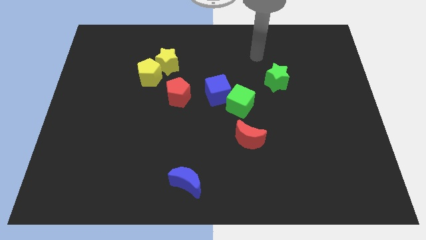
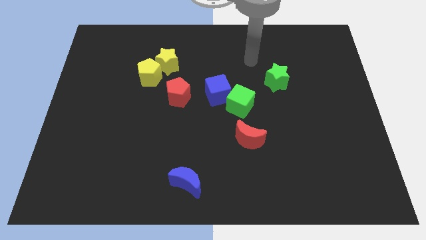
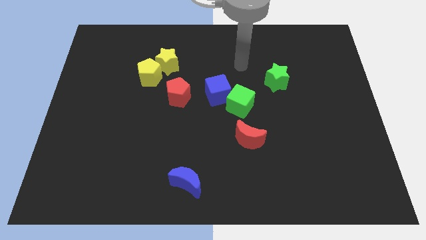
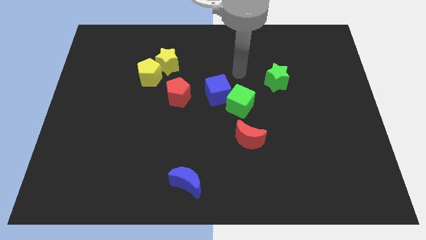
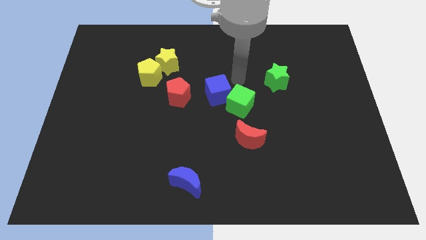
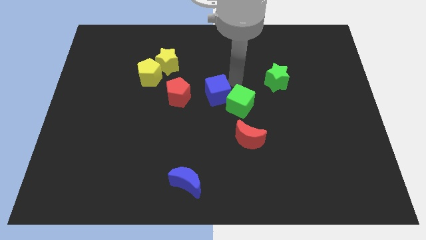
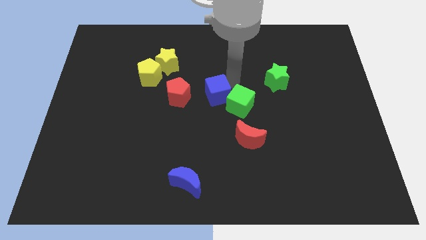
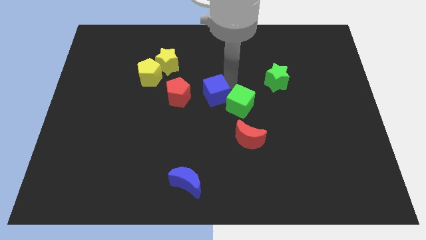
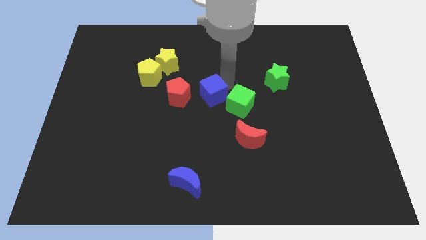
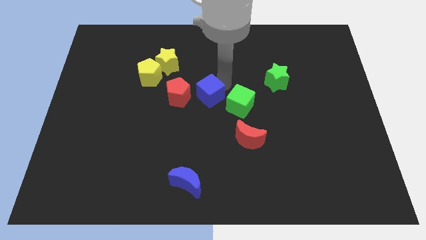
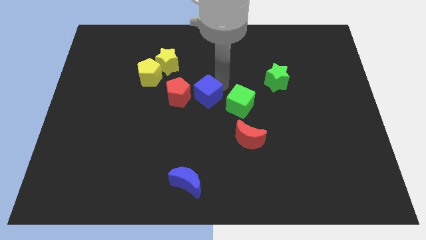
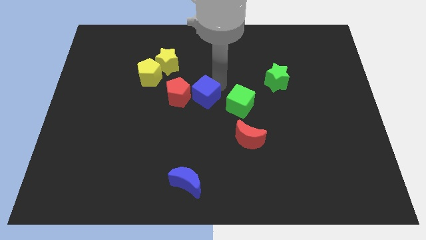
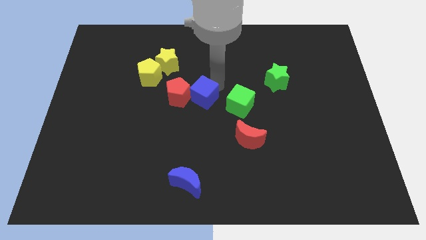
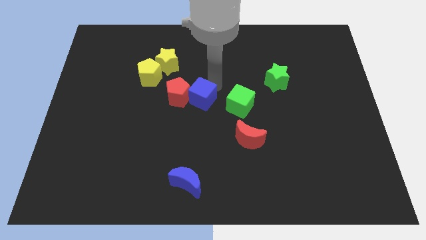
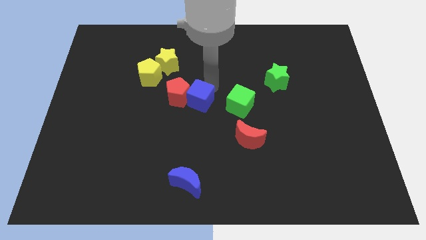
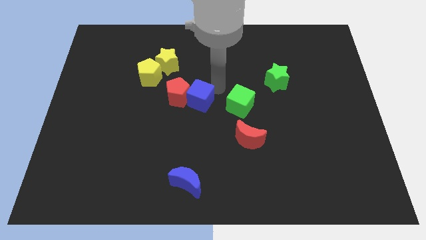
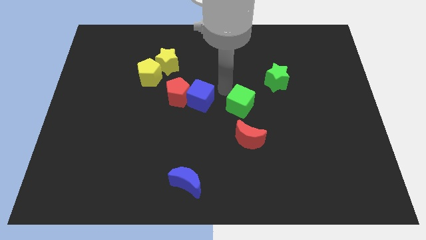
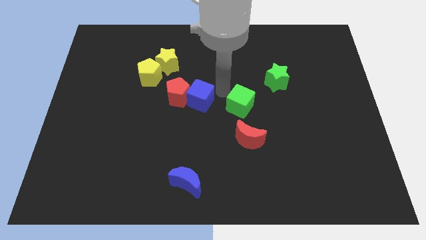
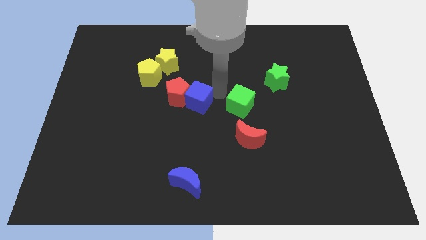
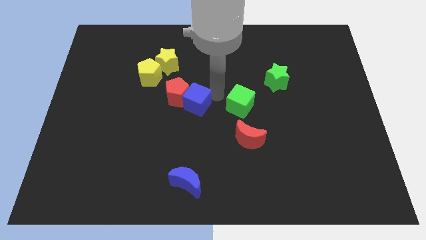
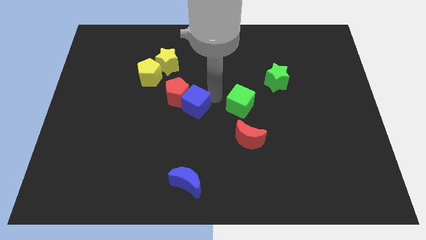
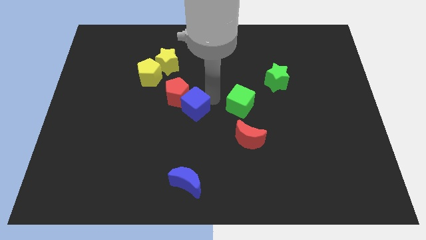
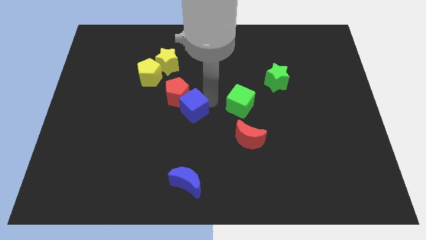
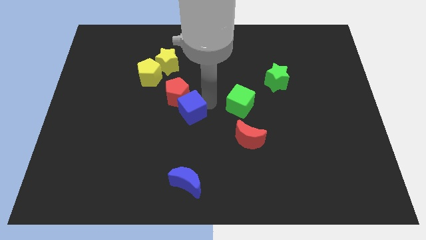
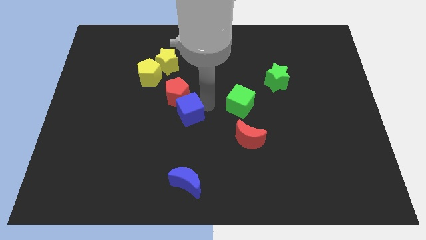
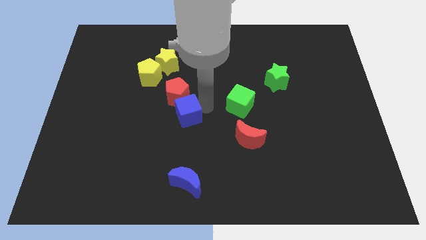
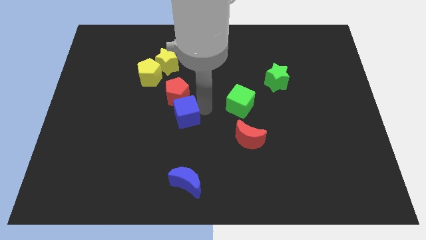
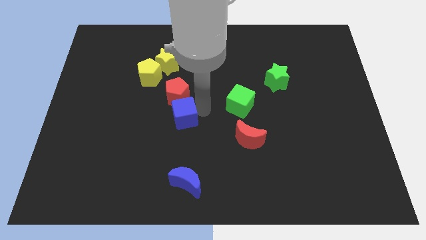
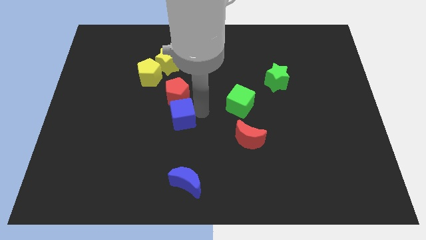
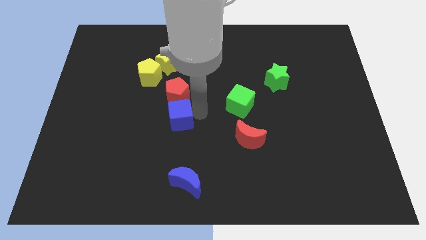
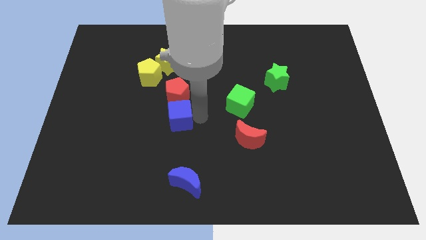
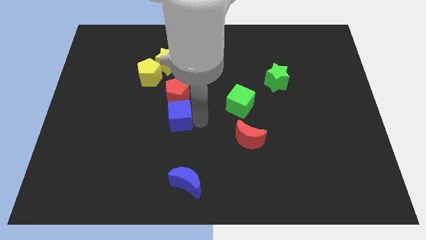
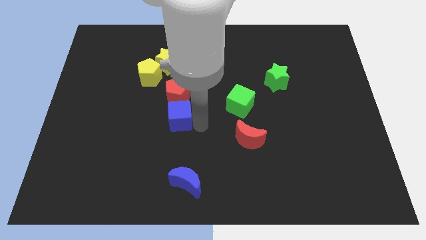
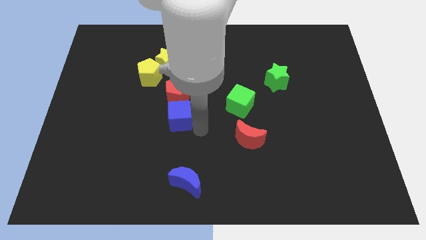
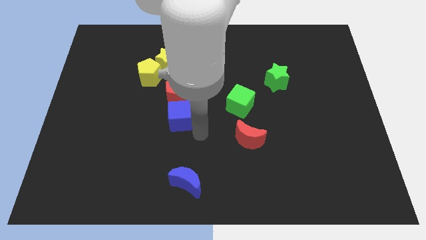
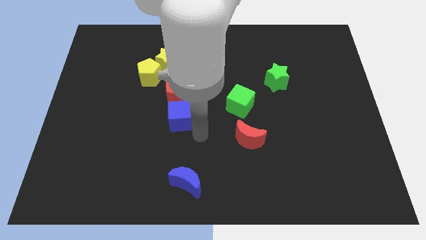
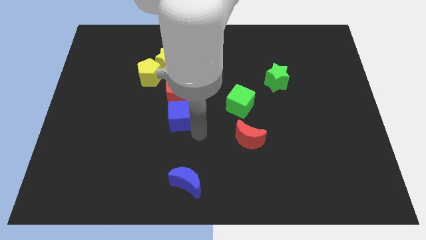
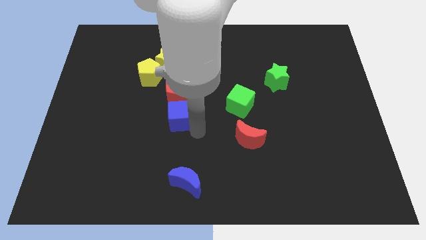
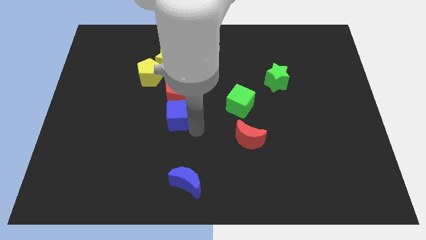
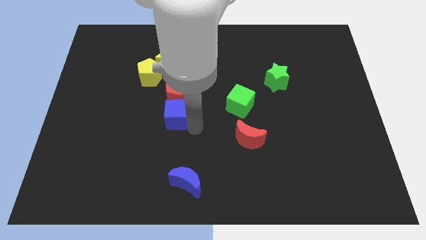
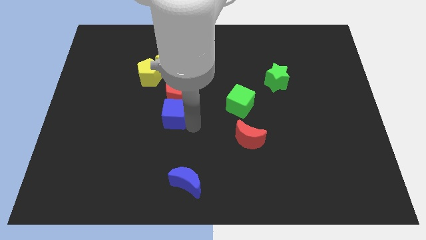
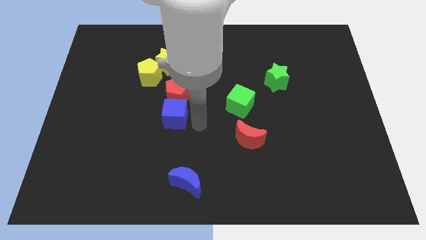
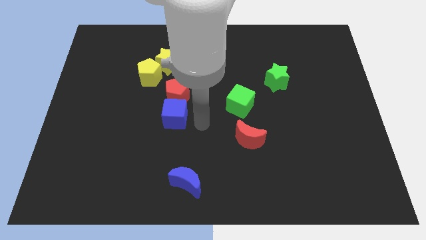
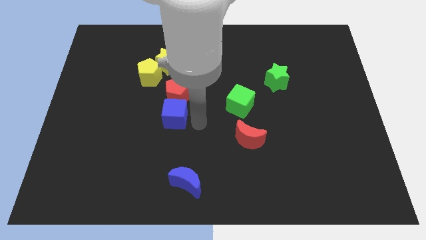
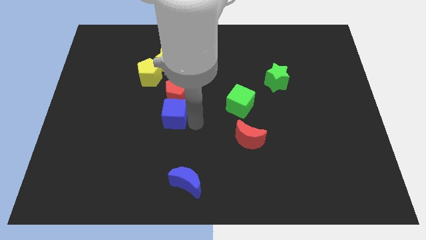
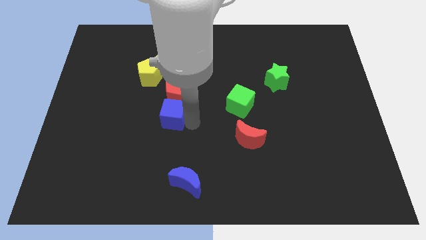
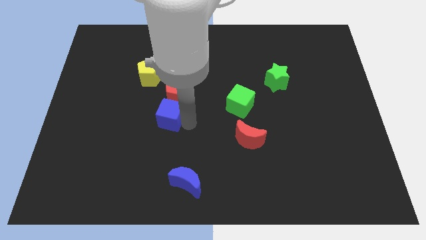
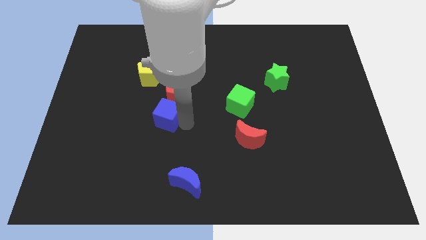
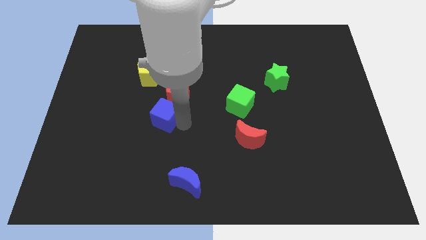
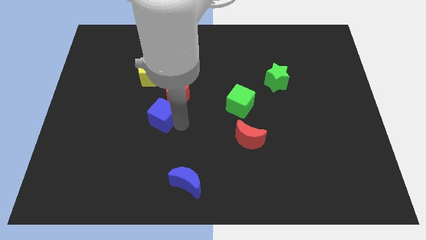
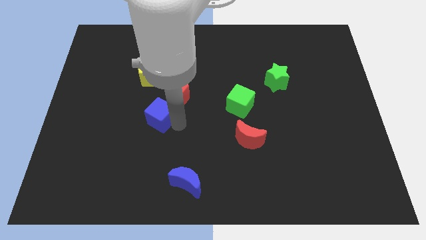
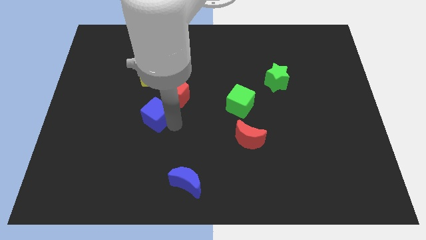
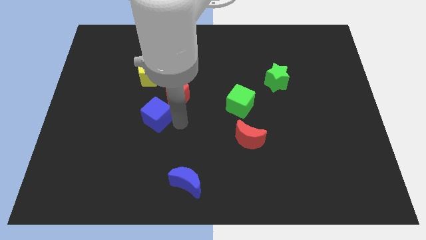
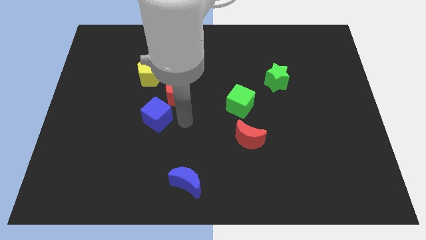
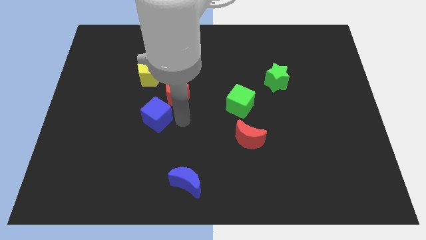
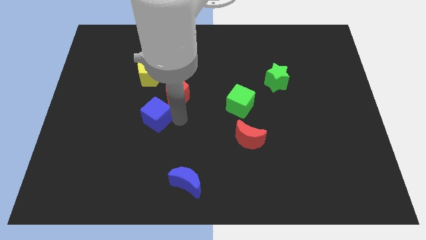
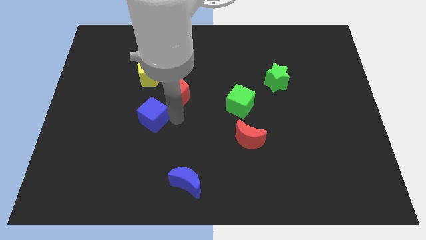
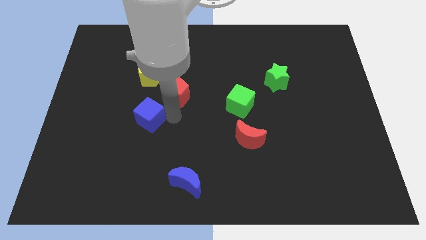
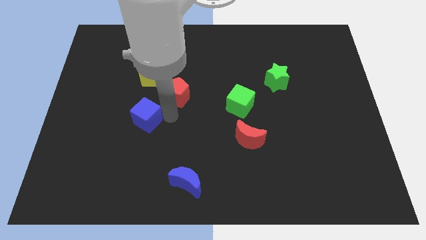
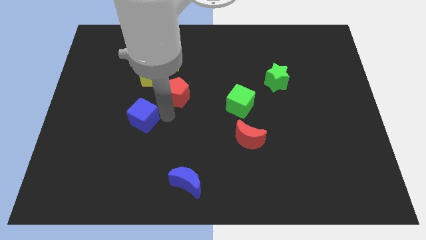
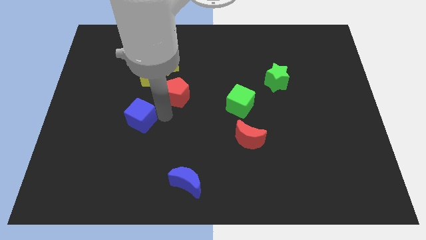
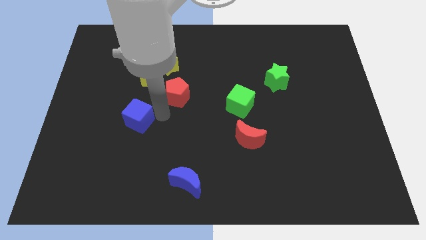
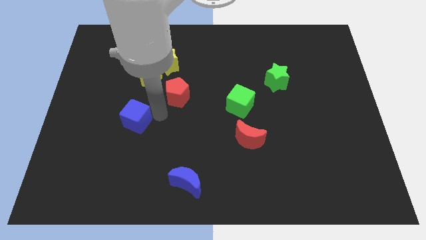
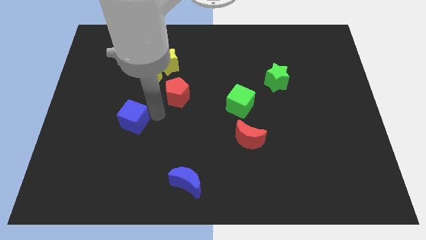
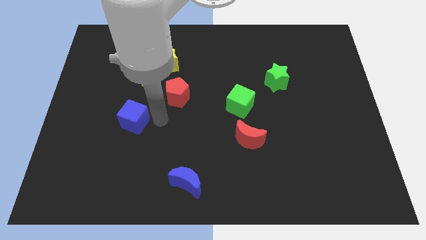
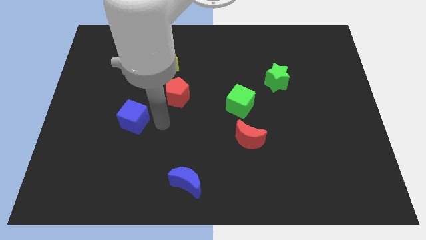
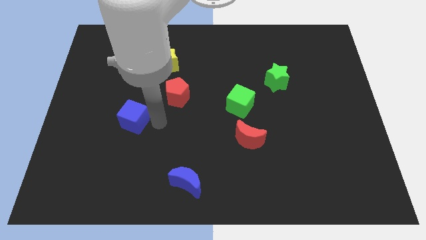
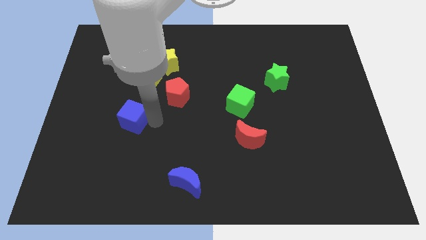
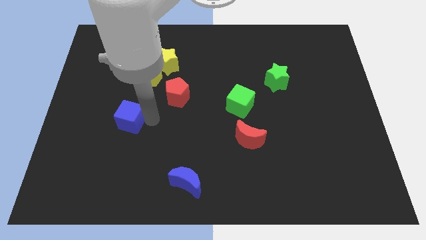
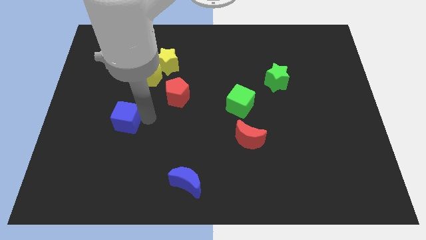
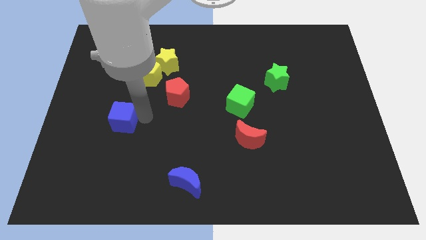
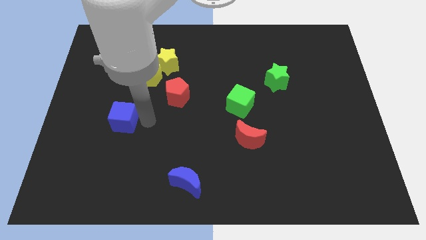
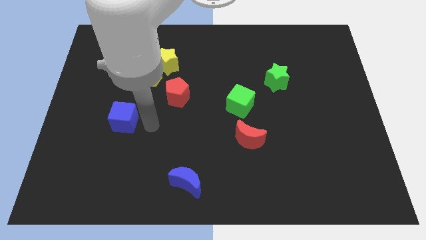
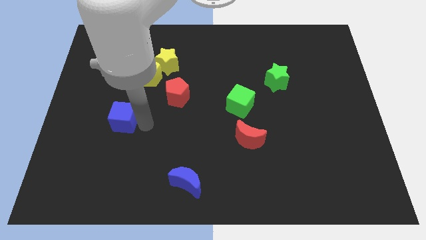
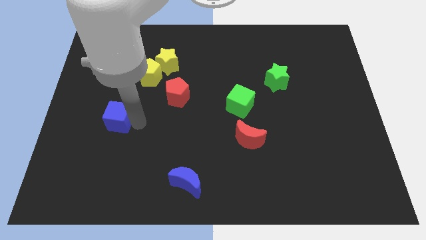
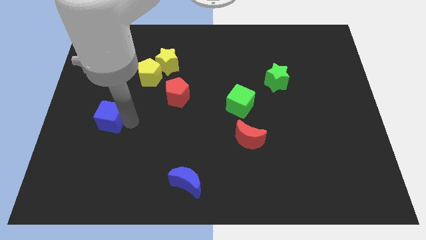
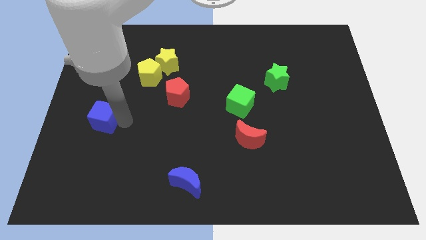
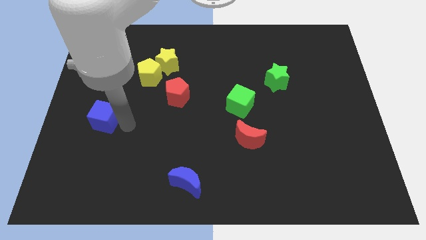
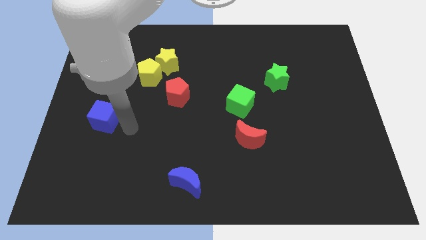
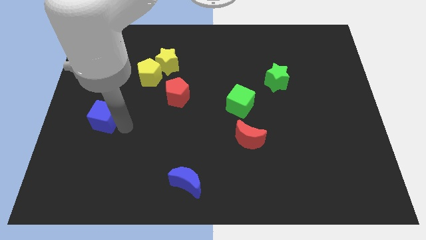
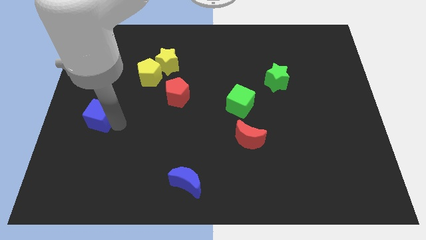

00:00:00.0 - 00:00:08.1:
push the blue cube to the left side
